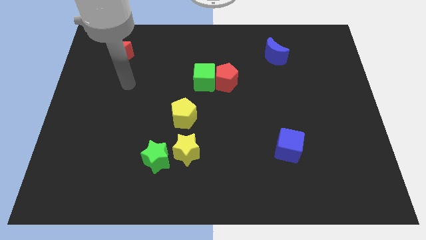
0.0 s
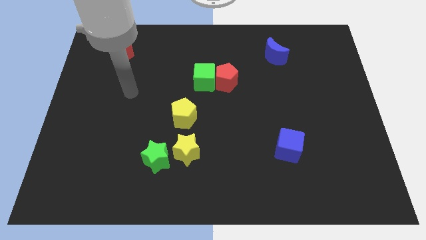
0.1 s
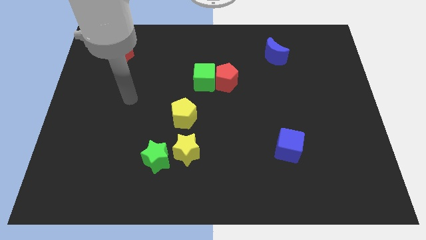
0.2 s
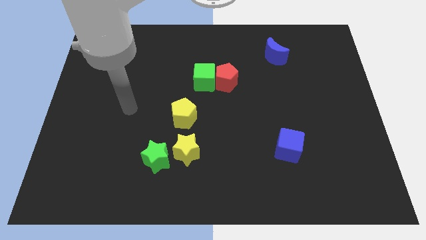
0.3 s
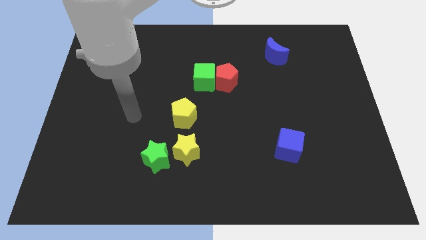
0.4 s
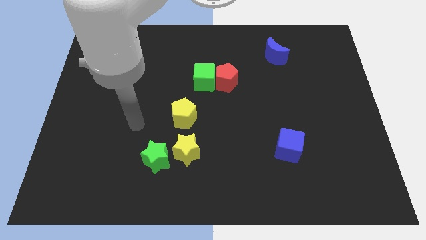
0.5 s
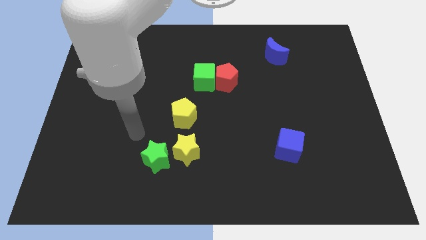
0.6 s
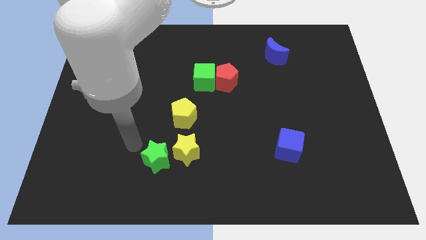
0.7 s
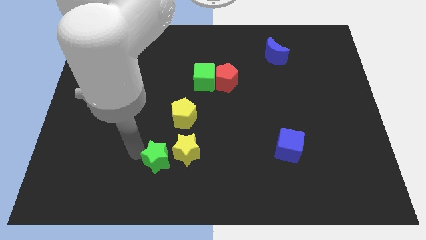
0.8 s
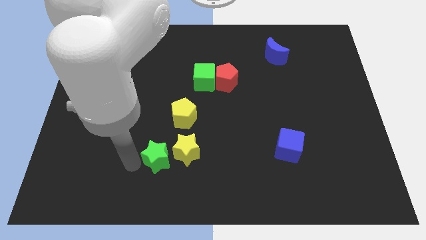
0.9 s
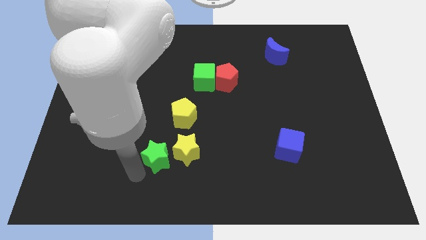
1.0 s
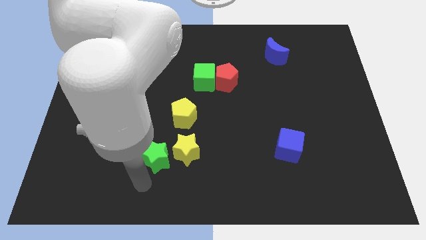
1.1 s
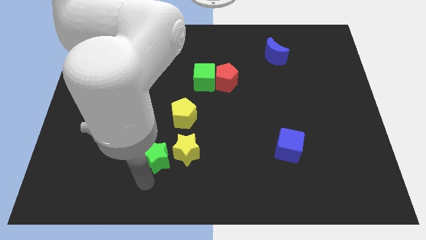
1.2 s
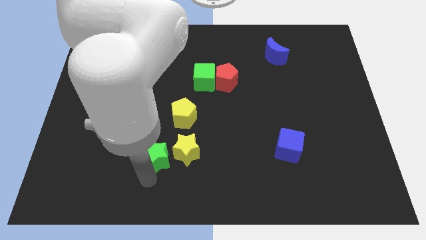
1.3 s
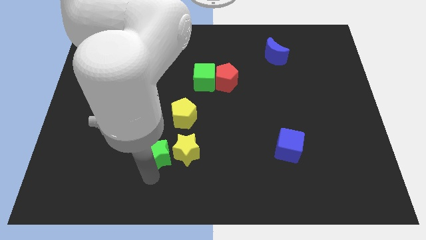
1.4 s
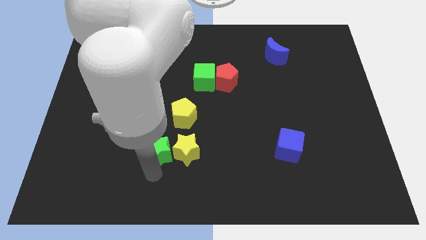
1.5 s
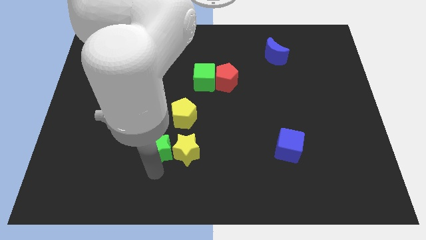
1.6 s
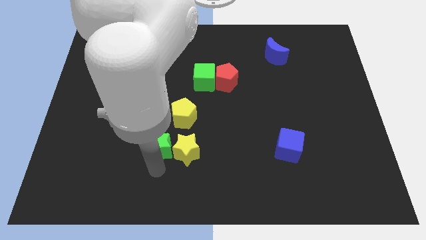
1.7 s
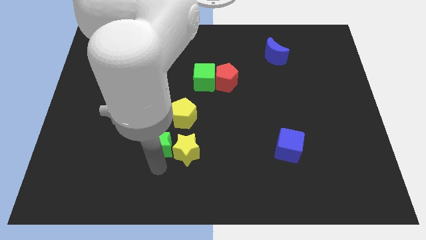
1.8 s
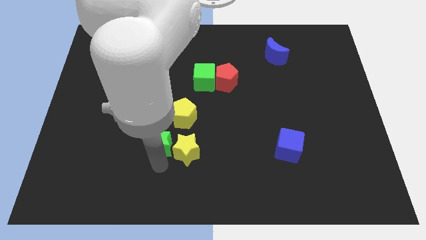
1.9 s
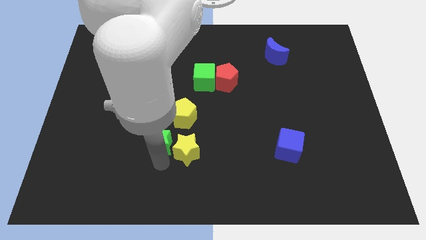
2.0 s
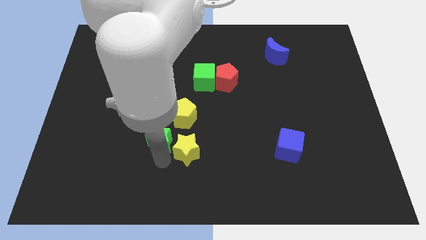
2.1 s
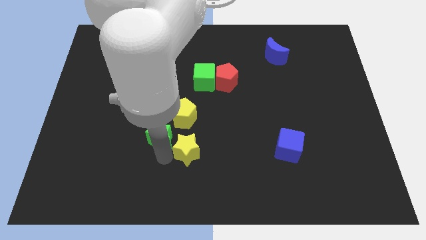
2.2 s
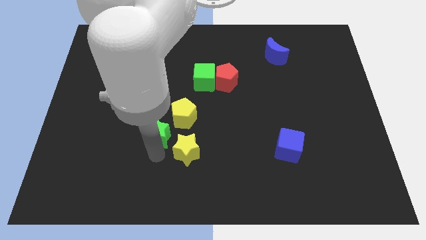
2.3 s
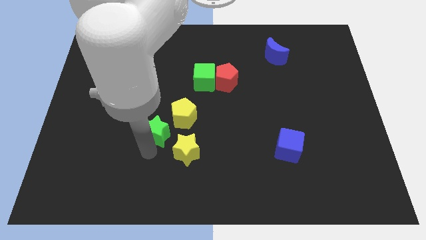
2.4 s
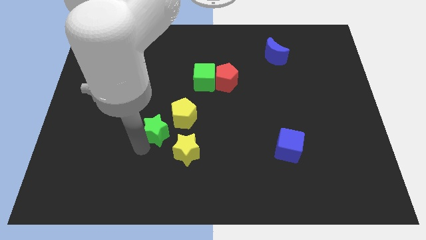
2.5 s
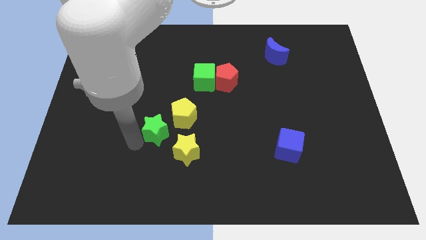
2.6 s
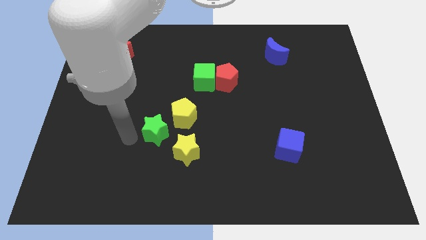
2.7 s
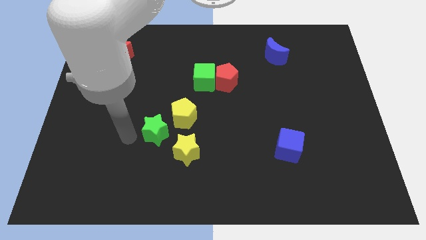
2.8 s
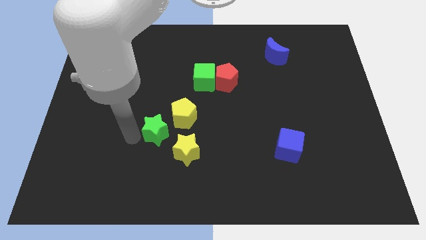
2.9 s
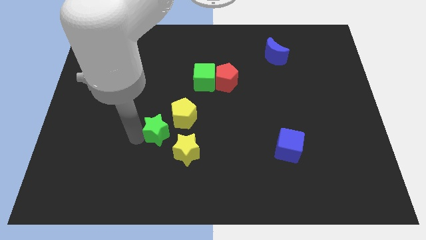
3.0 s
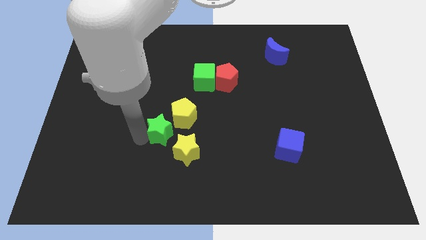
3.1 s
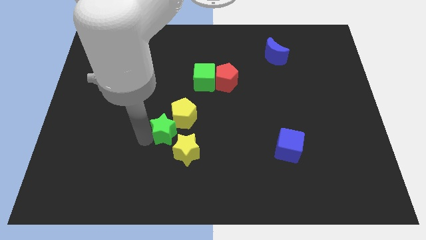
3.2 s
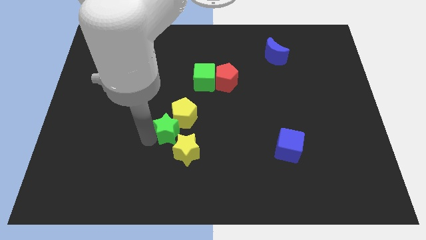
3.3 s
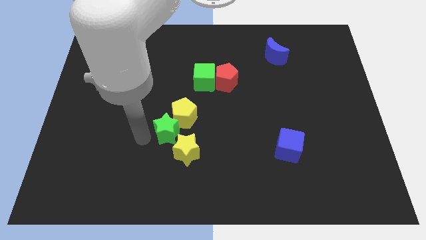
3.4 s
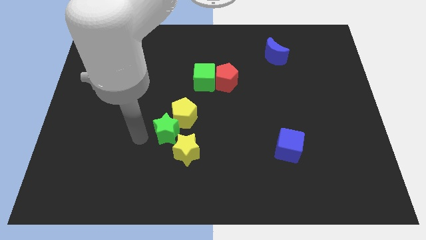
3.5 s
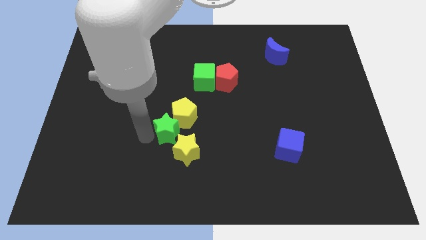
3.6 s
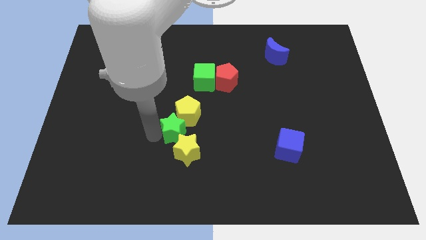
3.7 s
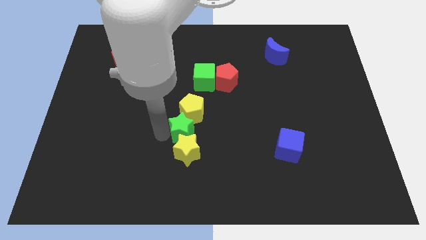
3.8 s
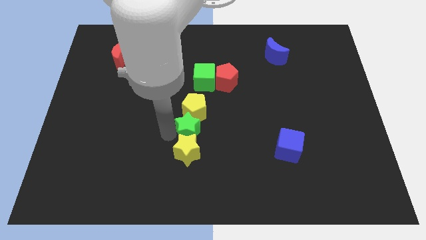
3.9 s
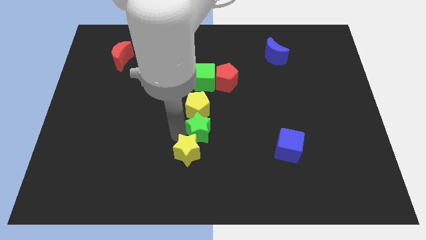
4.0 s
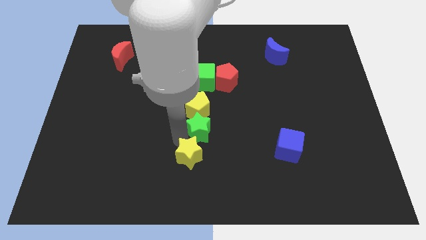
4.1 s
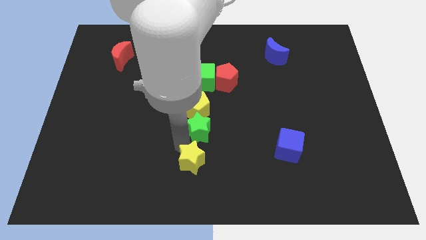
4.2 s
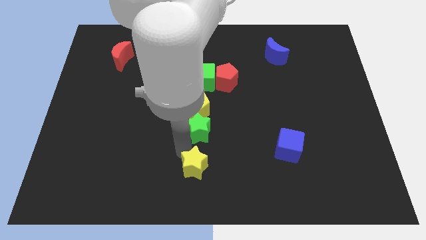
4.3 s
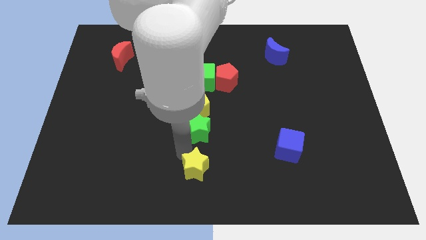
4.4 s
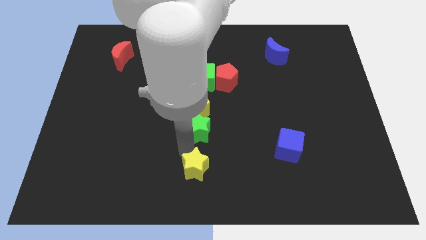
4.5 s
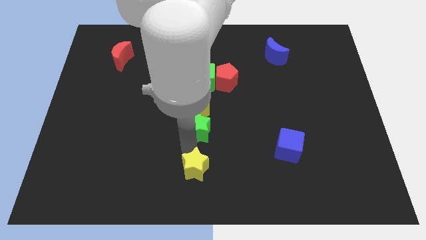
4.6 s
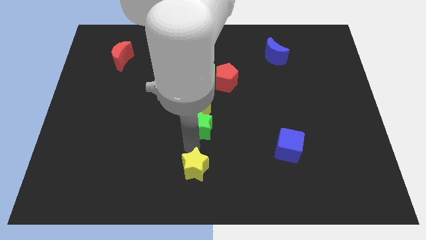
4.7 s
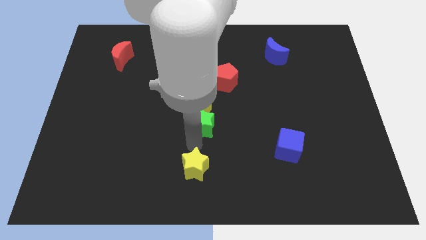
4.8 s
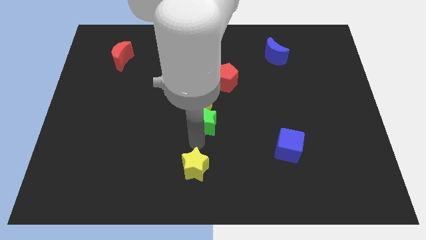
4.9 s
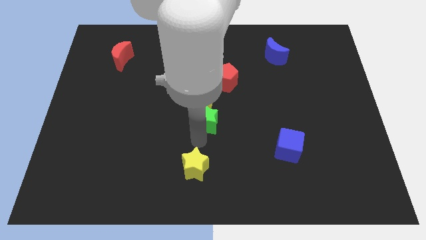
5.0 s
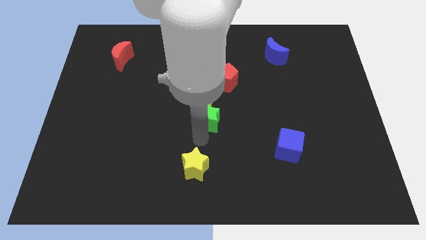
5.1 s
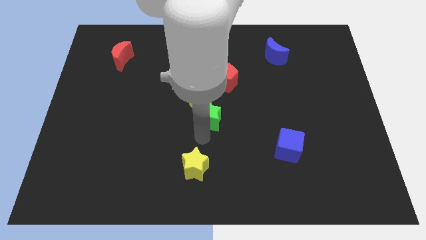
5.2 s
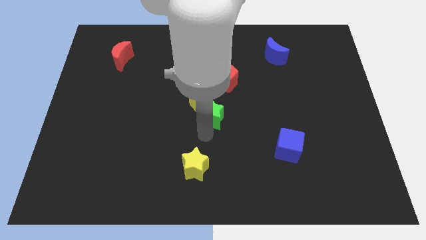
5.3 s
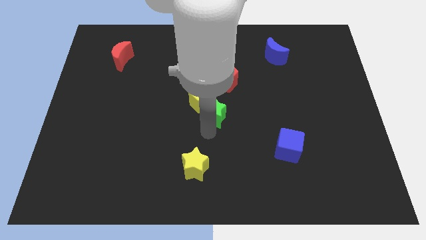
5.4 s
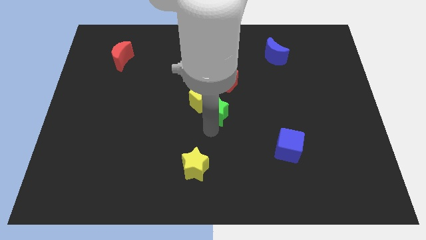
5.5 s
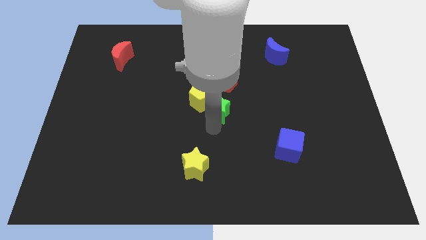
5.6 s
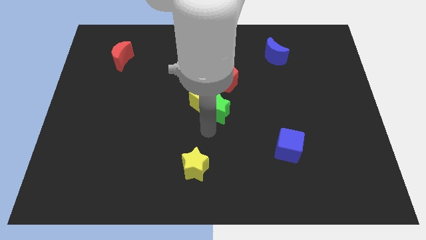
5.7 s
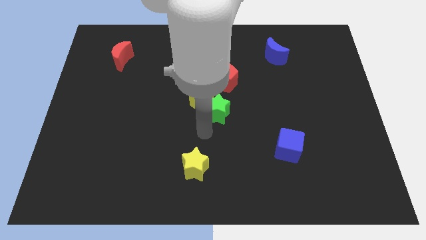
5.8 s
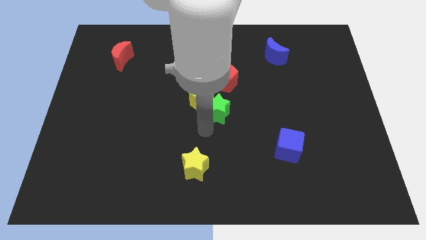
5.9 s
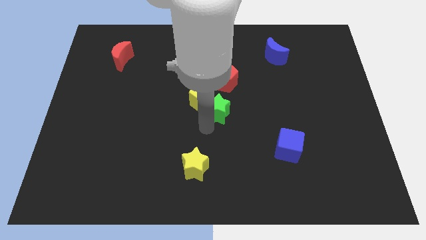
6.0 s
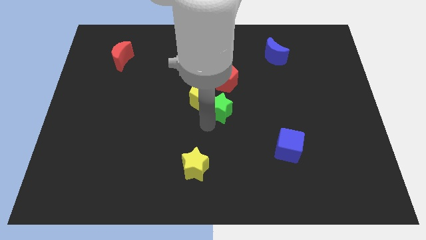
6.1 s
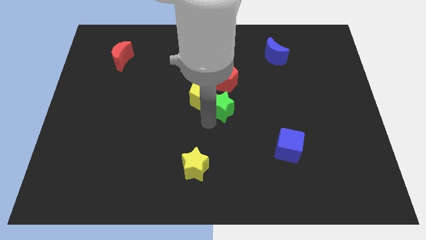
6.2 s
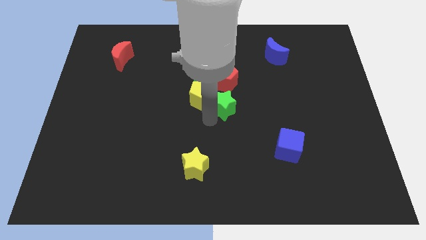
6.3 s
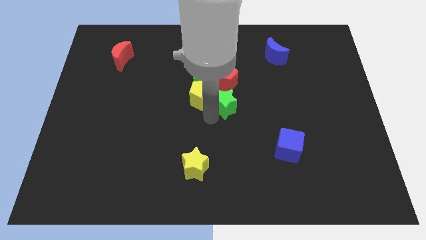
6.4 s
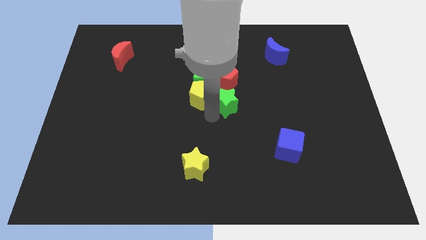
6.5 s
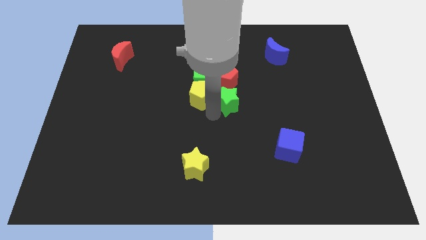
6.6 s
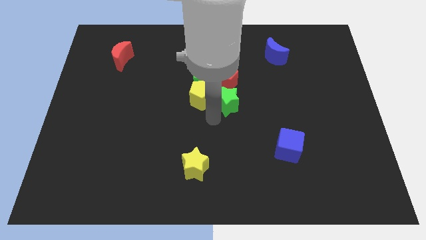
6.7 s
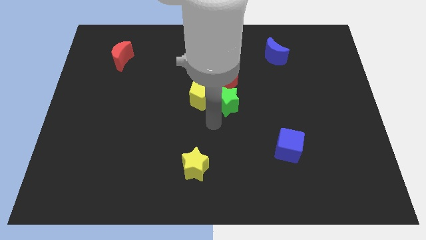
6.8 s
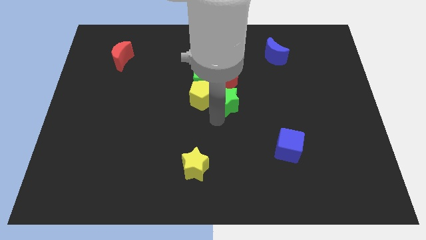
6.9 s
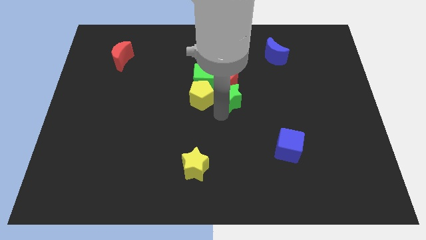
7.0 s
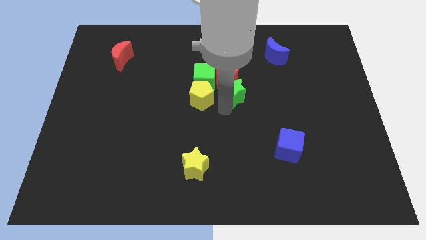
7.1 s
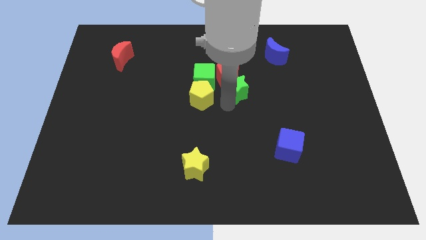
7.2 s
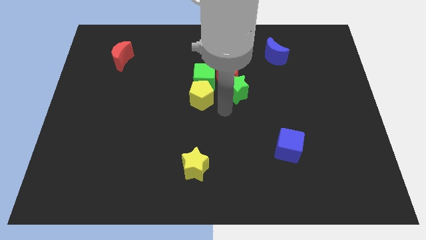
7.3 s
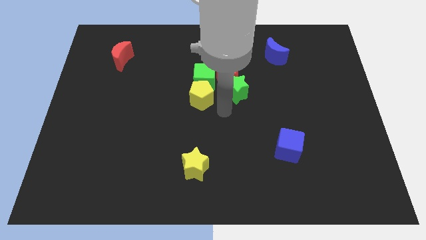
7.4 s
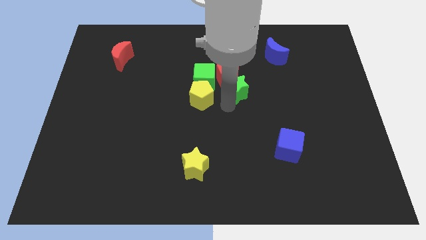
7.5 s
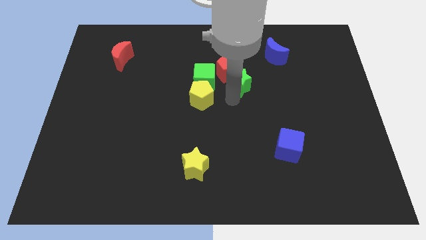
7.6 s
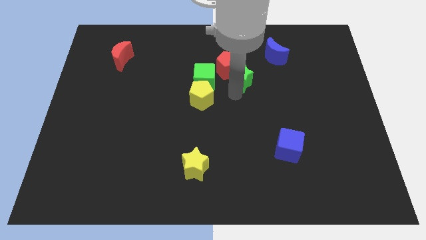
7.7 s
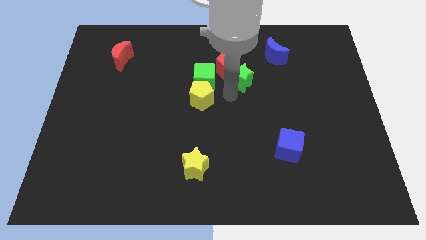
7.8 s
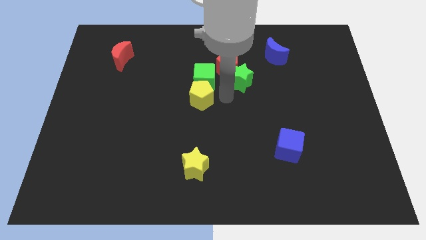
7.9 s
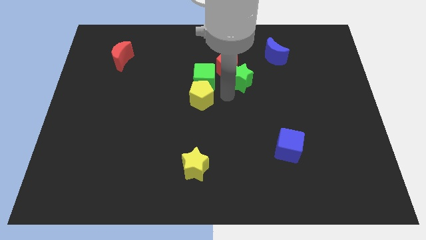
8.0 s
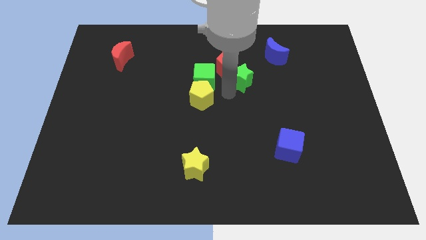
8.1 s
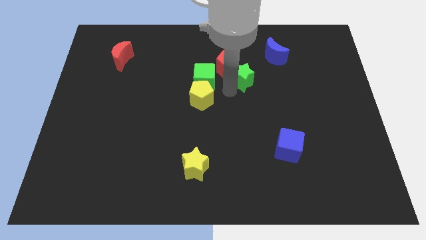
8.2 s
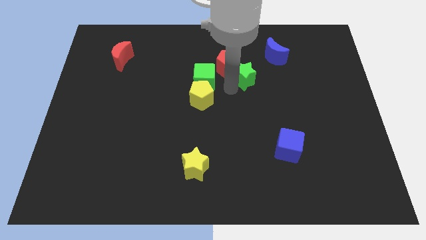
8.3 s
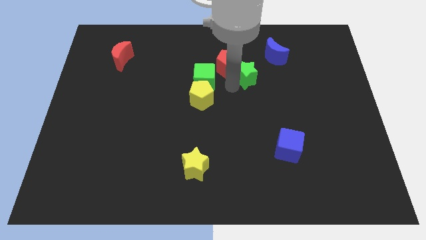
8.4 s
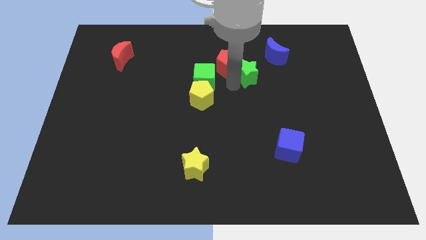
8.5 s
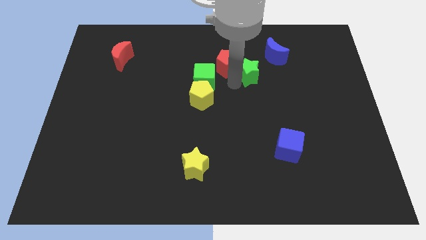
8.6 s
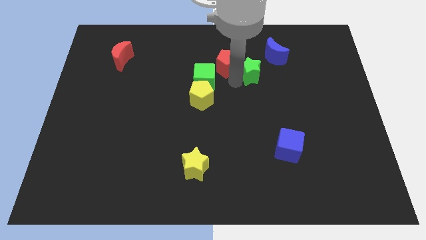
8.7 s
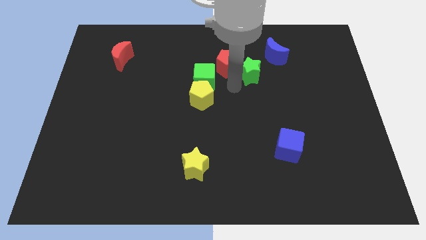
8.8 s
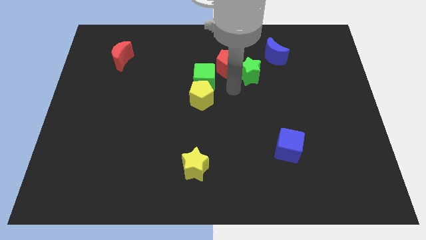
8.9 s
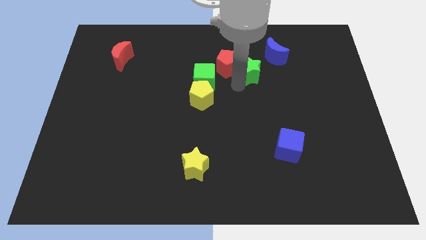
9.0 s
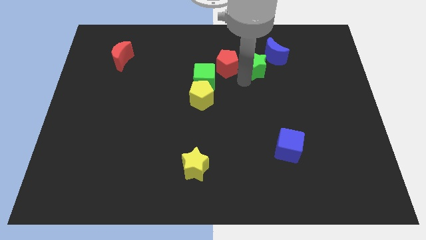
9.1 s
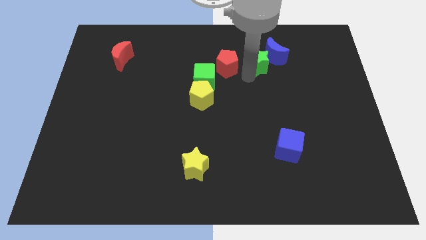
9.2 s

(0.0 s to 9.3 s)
push the green star towards the blue moon
